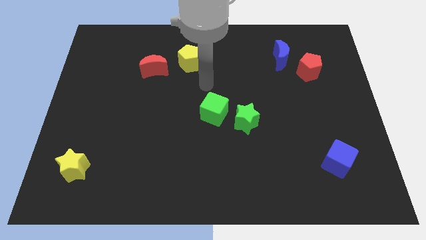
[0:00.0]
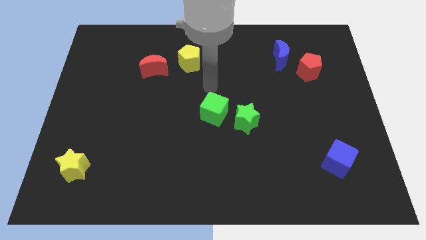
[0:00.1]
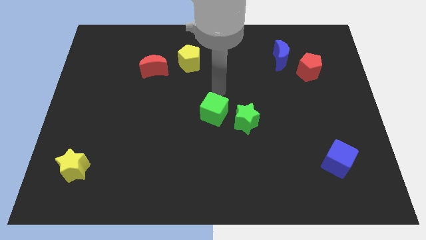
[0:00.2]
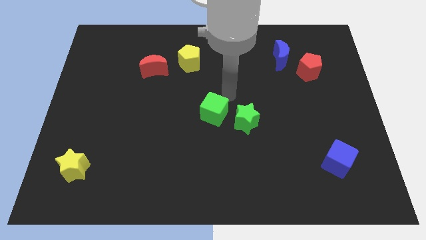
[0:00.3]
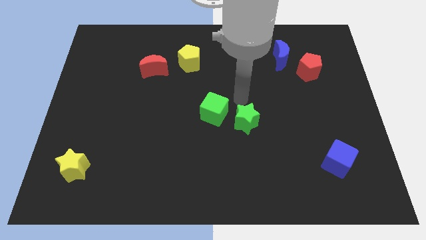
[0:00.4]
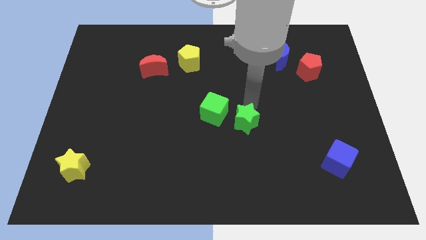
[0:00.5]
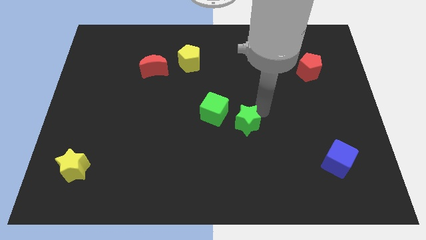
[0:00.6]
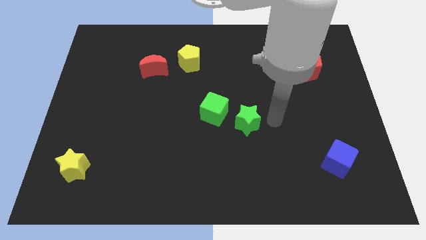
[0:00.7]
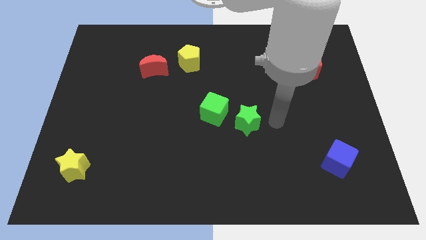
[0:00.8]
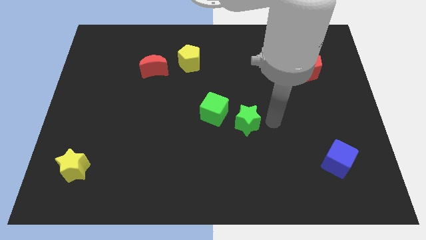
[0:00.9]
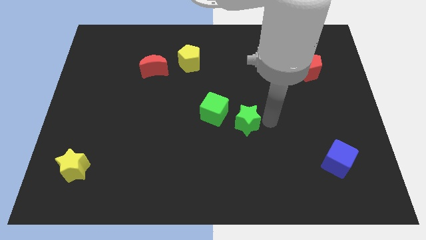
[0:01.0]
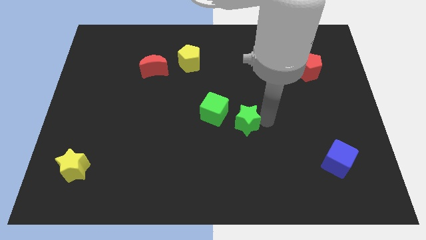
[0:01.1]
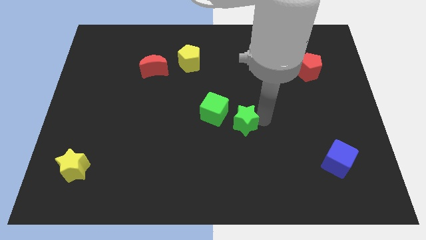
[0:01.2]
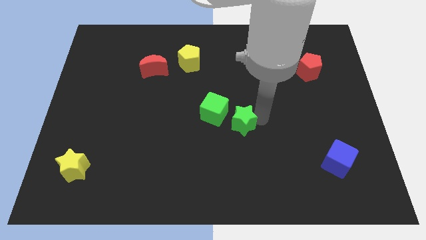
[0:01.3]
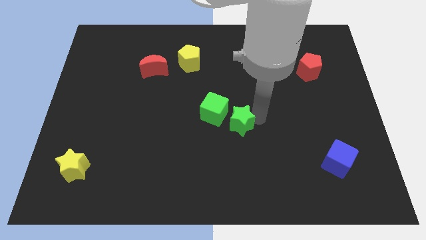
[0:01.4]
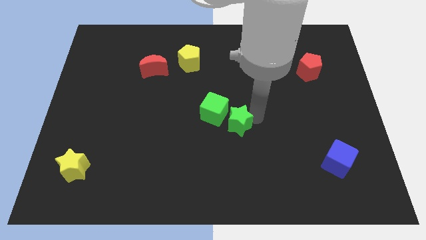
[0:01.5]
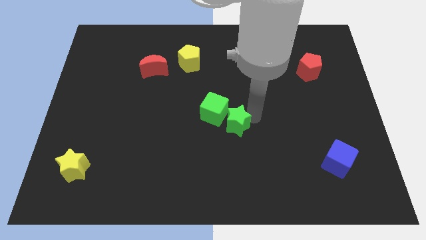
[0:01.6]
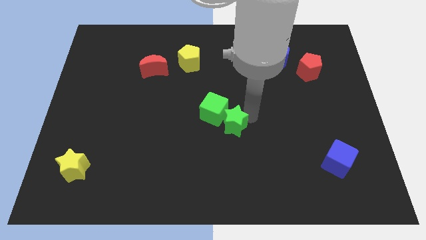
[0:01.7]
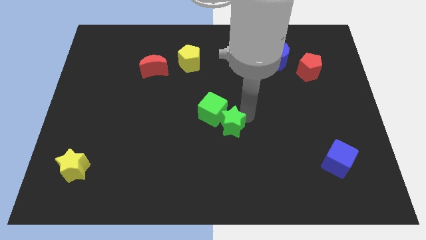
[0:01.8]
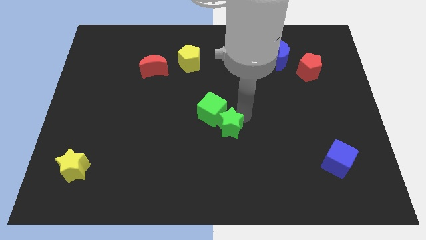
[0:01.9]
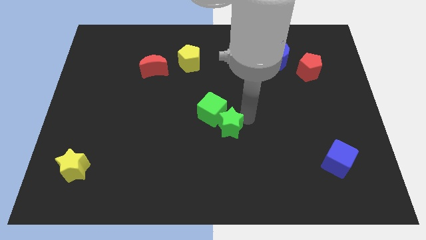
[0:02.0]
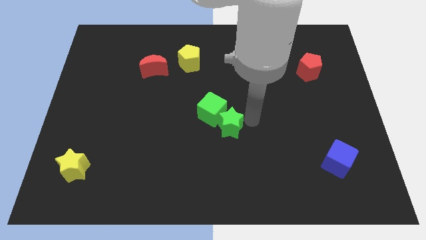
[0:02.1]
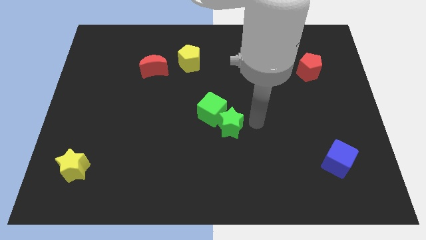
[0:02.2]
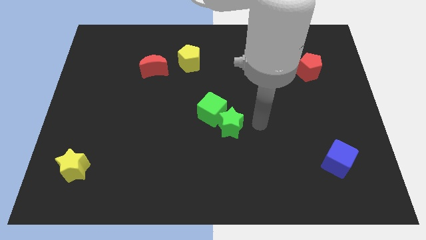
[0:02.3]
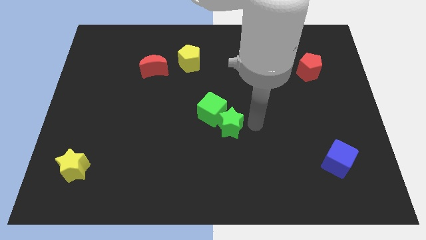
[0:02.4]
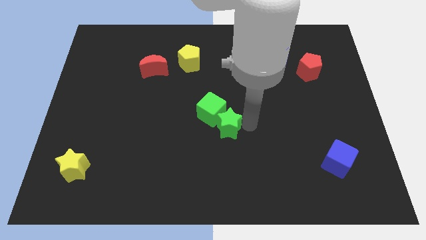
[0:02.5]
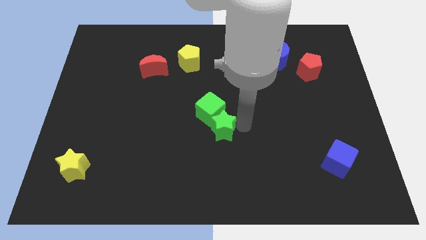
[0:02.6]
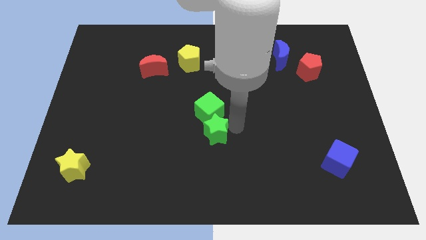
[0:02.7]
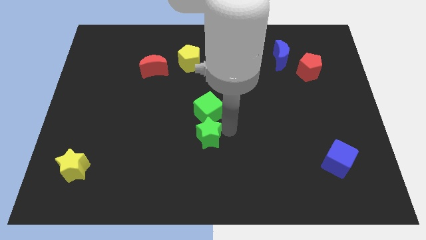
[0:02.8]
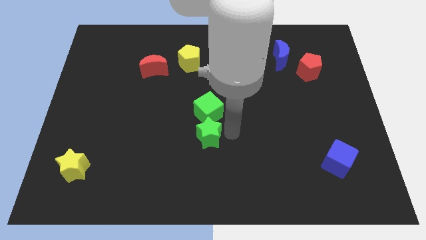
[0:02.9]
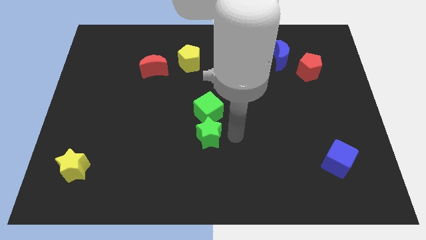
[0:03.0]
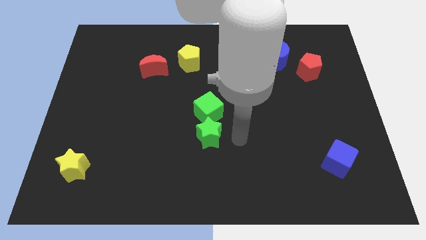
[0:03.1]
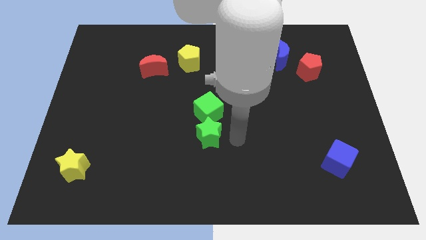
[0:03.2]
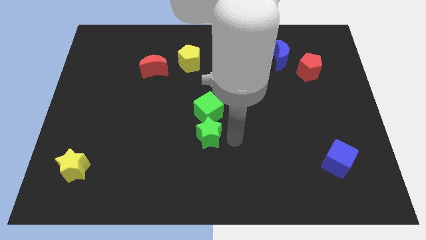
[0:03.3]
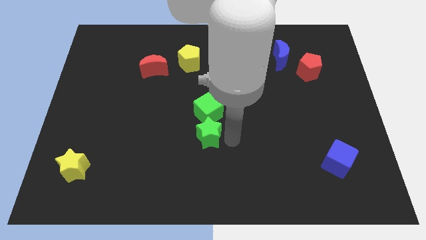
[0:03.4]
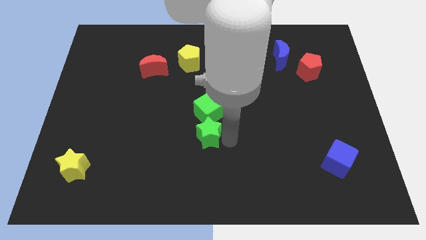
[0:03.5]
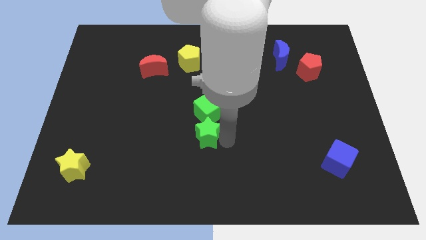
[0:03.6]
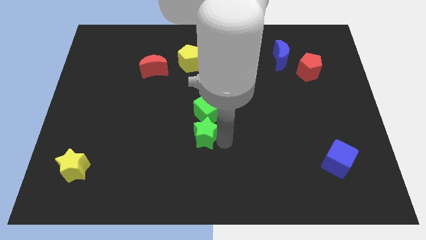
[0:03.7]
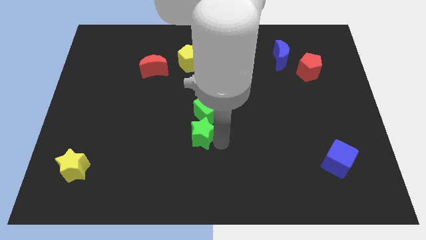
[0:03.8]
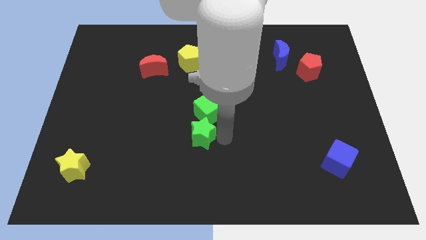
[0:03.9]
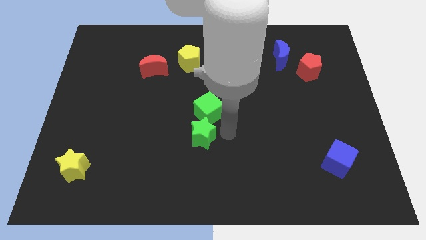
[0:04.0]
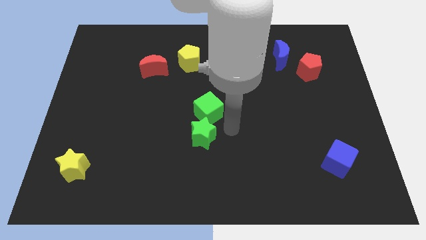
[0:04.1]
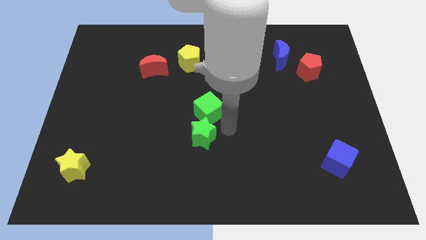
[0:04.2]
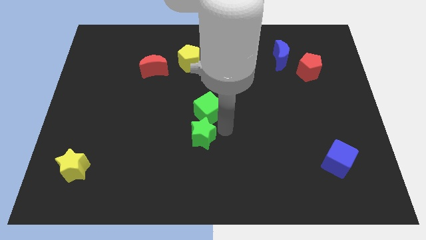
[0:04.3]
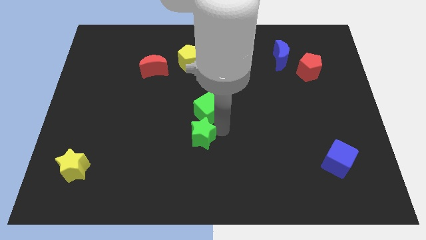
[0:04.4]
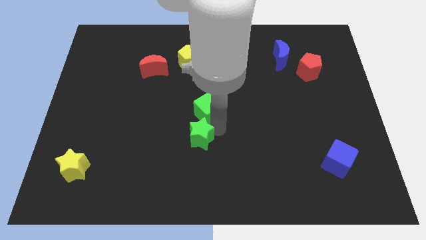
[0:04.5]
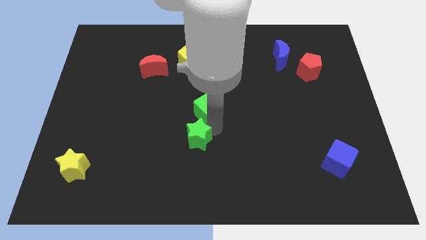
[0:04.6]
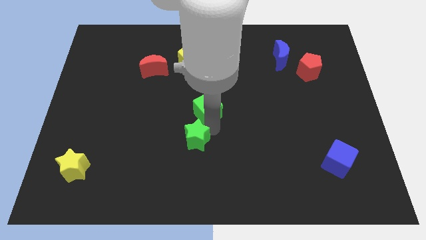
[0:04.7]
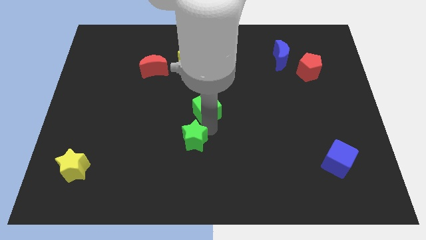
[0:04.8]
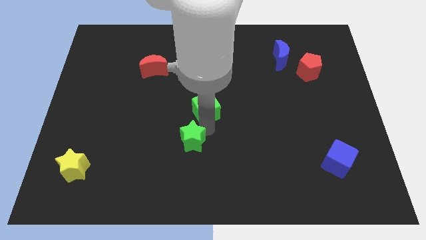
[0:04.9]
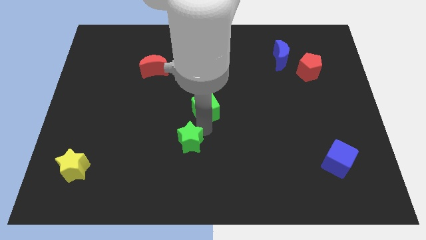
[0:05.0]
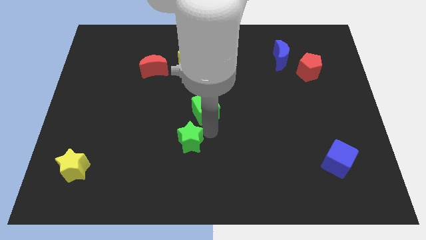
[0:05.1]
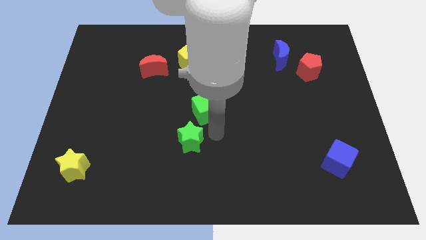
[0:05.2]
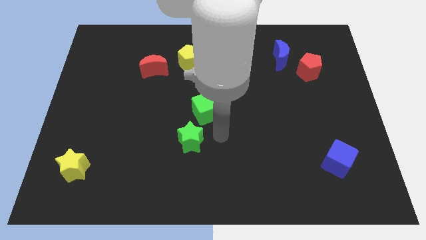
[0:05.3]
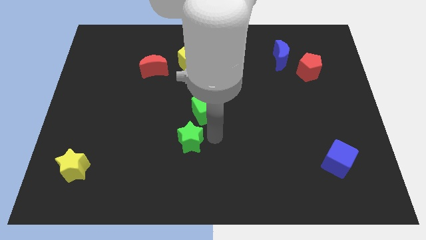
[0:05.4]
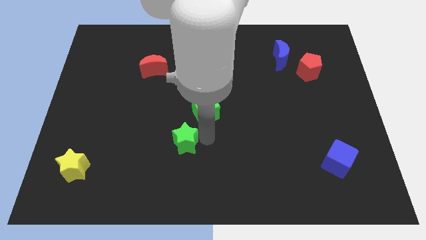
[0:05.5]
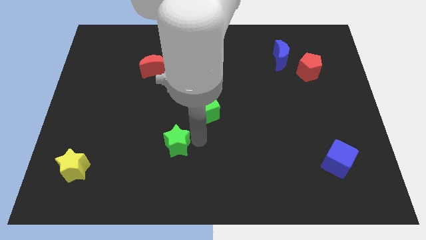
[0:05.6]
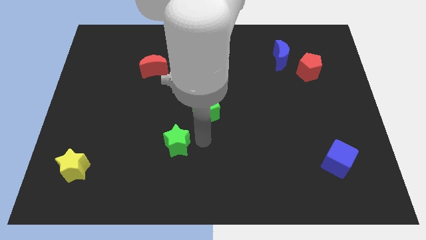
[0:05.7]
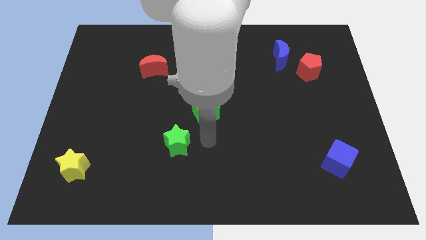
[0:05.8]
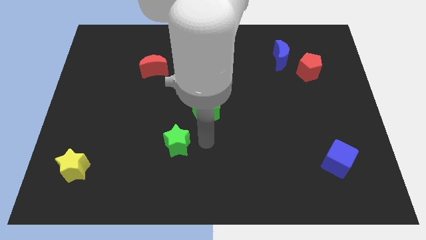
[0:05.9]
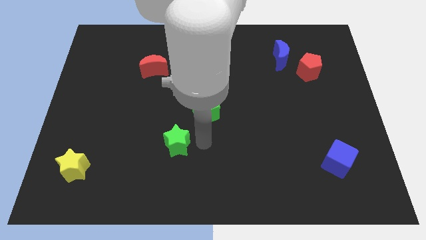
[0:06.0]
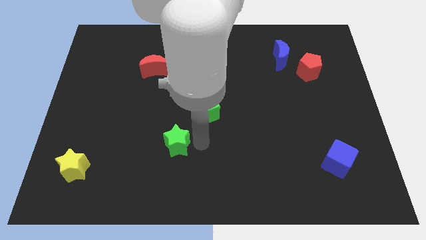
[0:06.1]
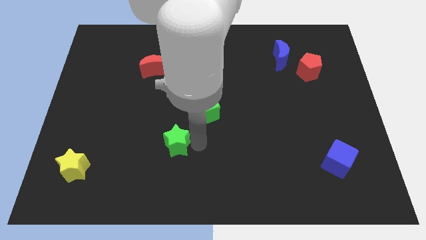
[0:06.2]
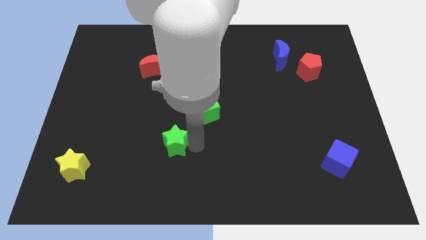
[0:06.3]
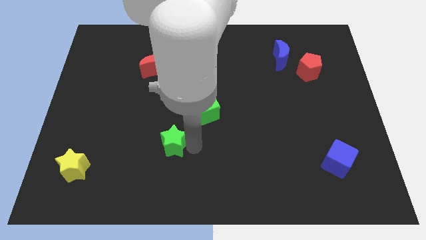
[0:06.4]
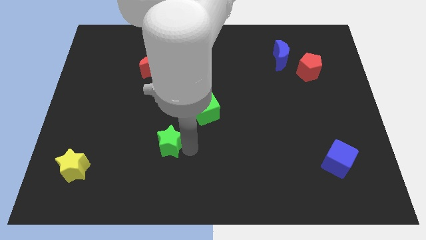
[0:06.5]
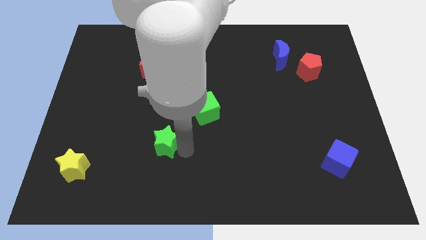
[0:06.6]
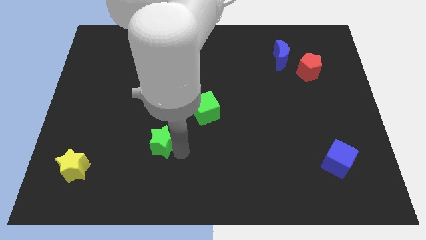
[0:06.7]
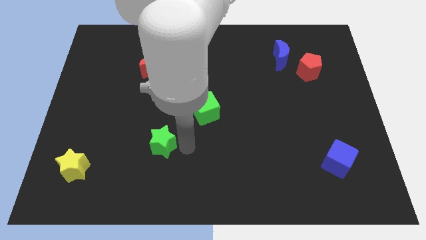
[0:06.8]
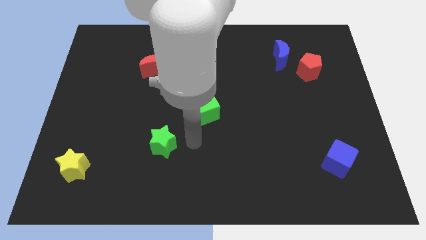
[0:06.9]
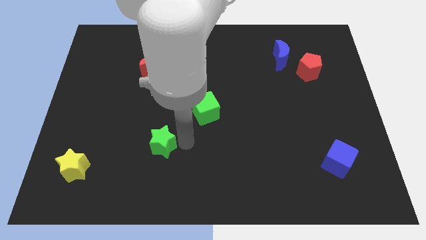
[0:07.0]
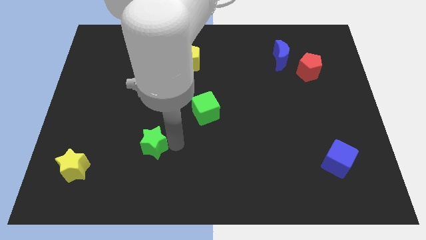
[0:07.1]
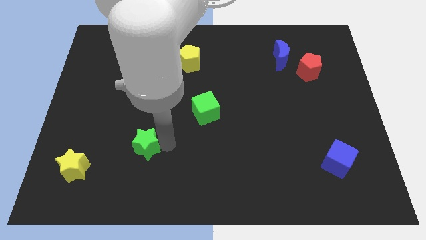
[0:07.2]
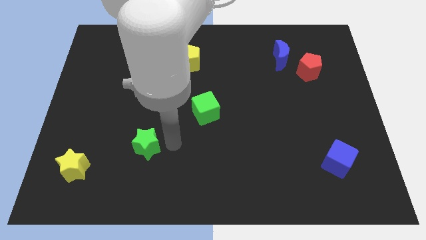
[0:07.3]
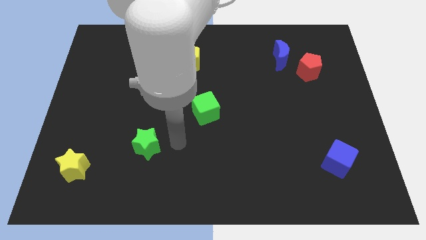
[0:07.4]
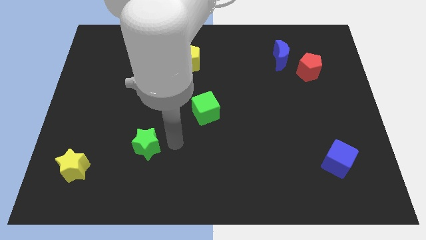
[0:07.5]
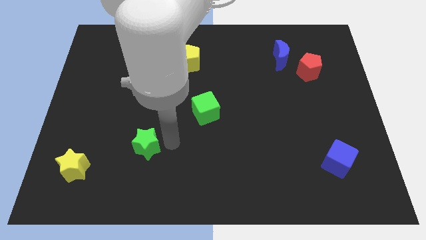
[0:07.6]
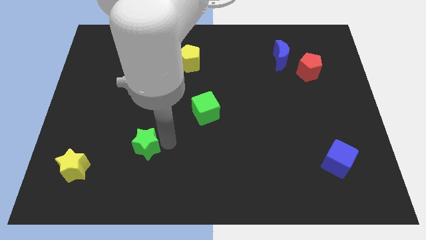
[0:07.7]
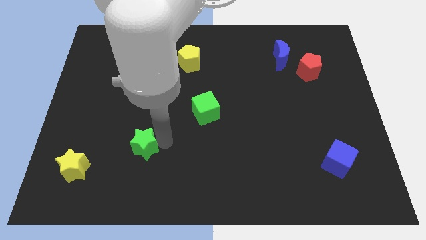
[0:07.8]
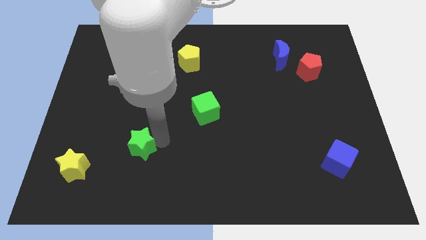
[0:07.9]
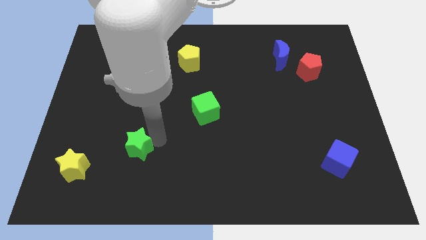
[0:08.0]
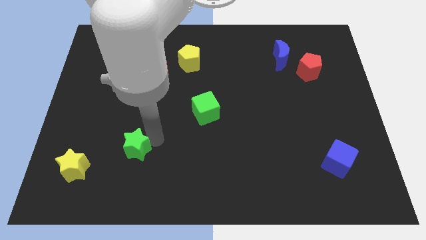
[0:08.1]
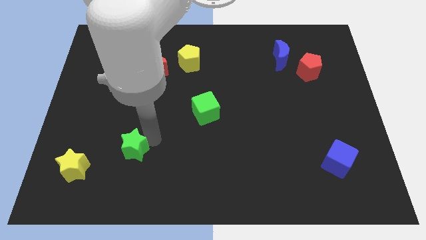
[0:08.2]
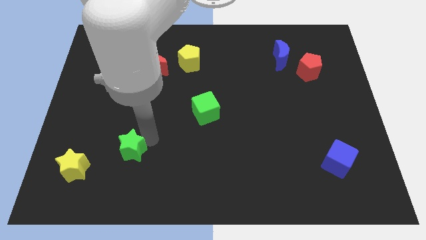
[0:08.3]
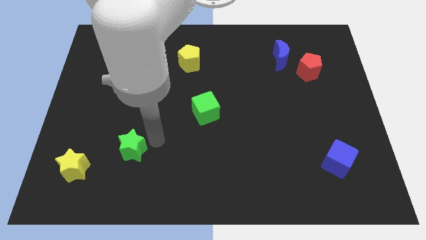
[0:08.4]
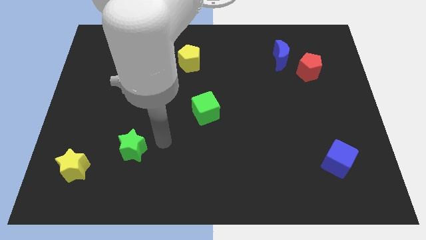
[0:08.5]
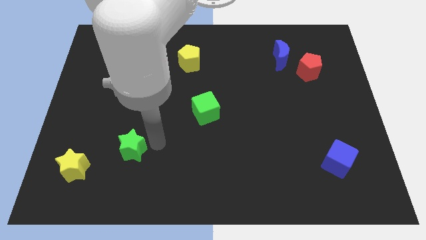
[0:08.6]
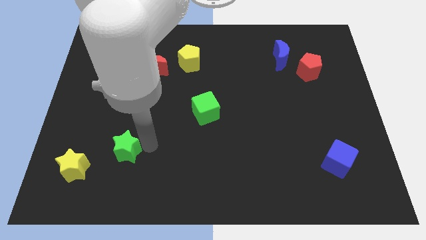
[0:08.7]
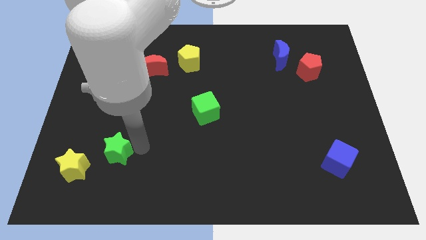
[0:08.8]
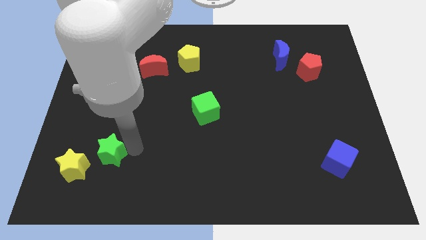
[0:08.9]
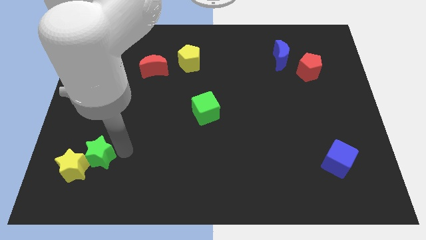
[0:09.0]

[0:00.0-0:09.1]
slide the green star to the yellow star
